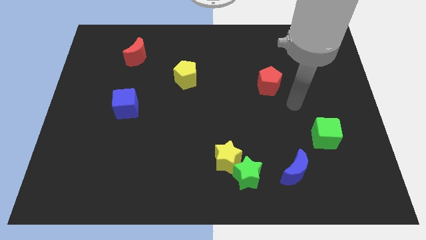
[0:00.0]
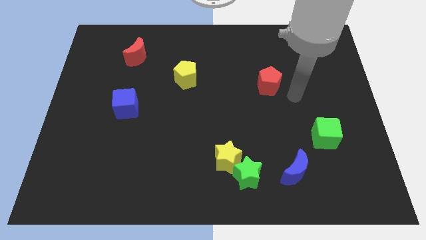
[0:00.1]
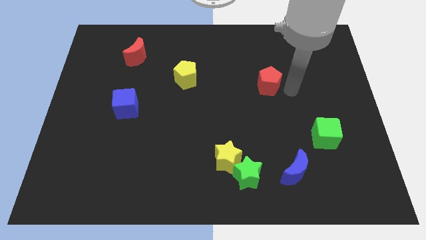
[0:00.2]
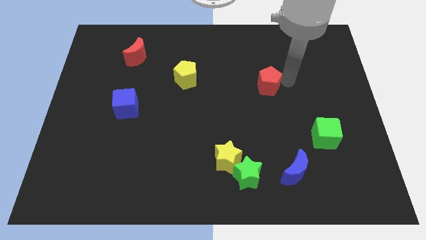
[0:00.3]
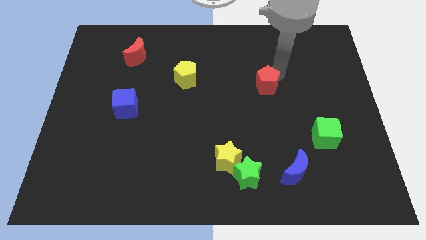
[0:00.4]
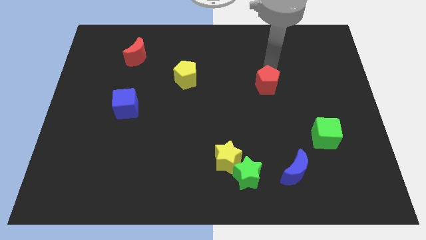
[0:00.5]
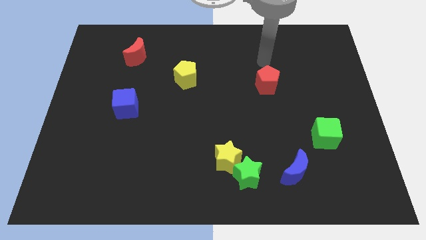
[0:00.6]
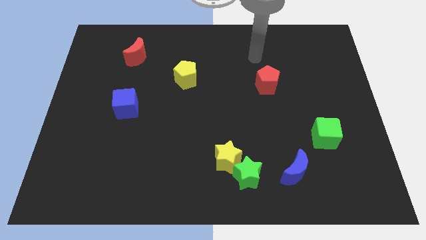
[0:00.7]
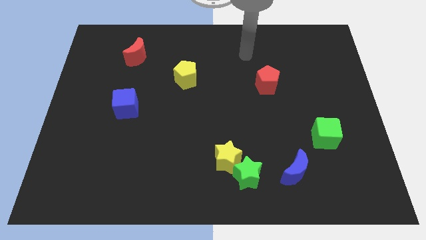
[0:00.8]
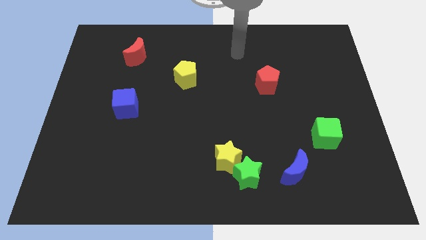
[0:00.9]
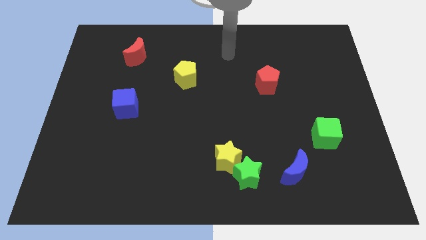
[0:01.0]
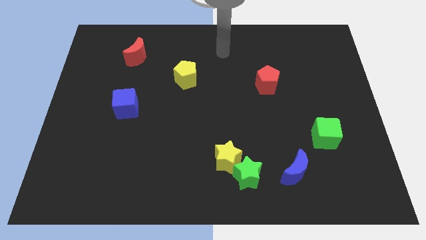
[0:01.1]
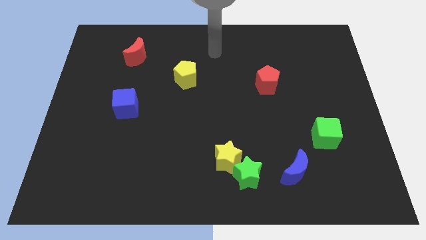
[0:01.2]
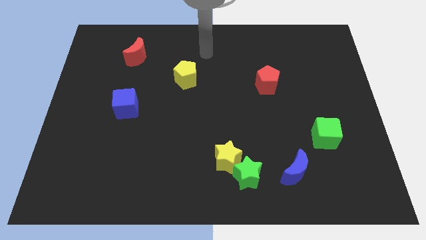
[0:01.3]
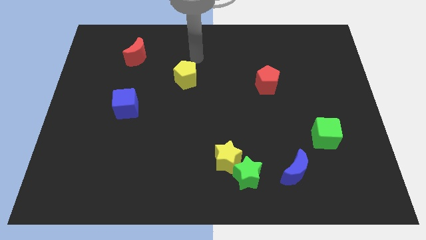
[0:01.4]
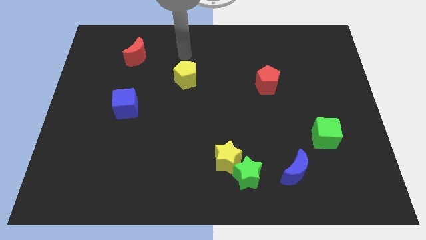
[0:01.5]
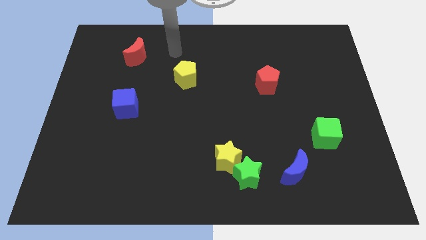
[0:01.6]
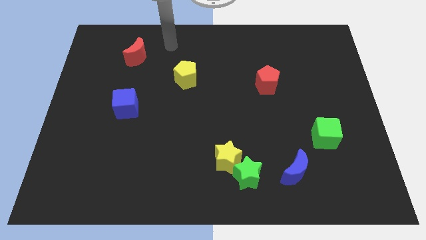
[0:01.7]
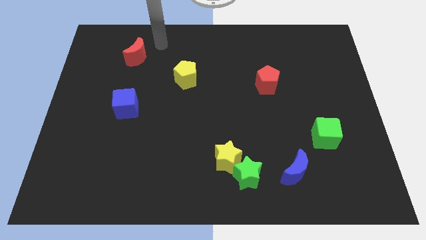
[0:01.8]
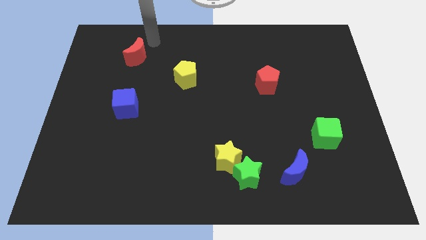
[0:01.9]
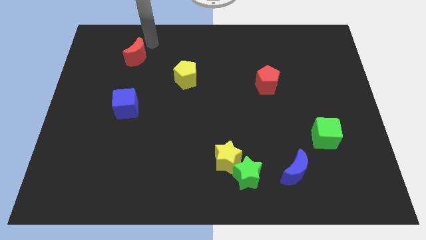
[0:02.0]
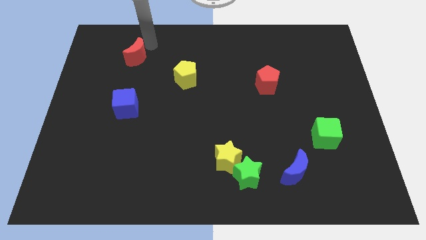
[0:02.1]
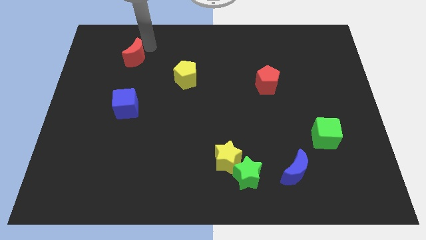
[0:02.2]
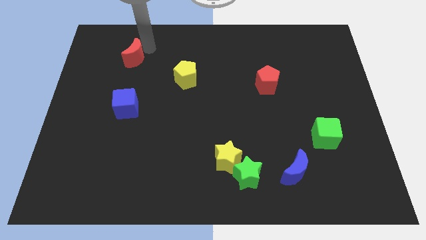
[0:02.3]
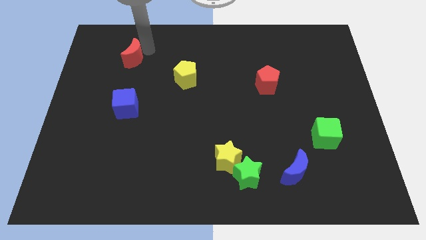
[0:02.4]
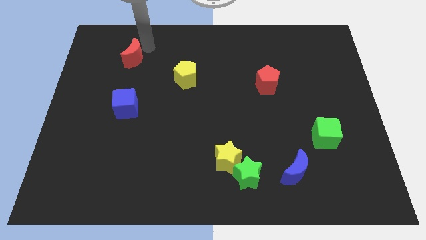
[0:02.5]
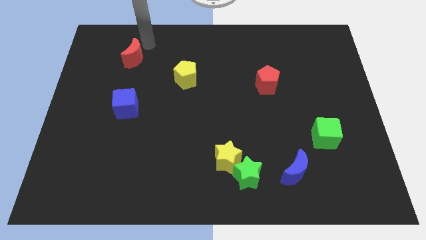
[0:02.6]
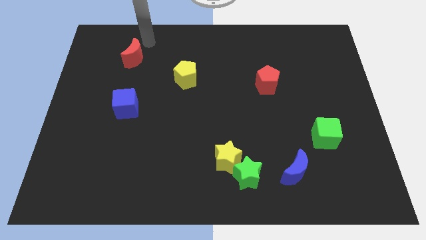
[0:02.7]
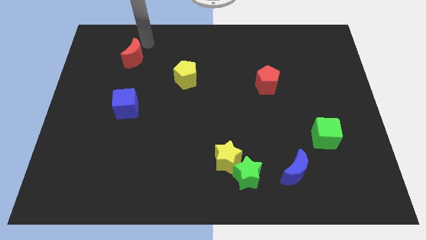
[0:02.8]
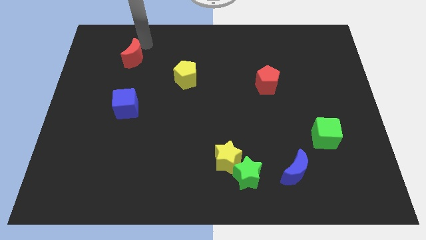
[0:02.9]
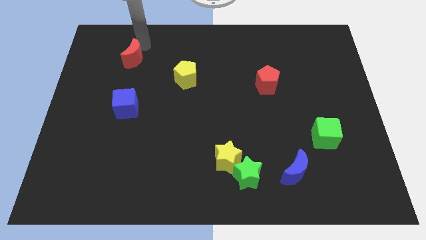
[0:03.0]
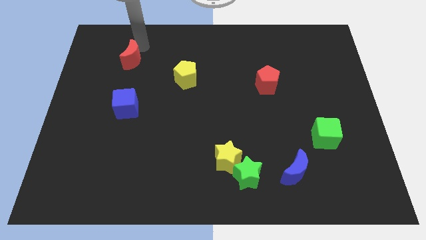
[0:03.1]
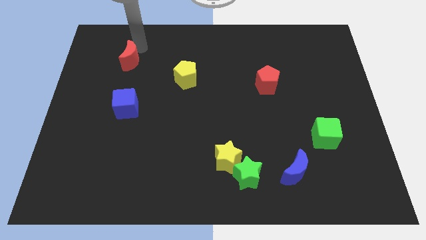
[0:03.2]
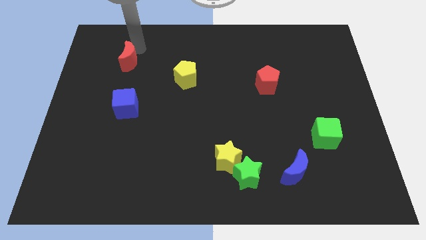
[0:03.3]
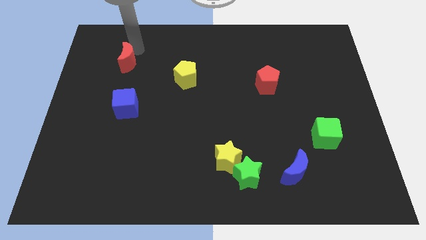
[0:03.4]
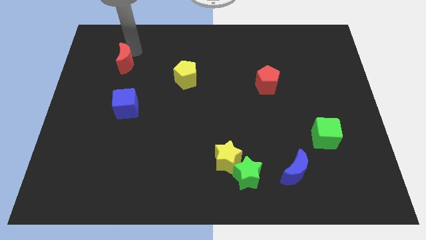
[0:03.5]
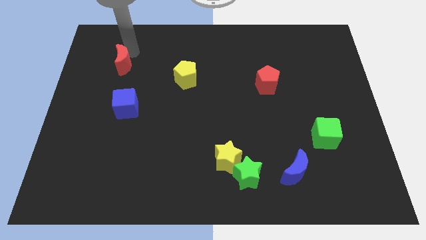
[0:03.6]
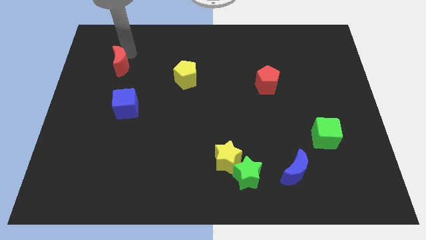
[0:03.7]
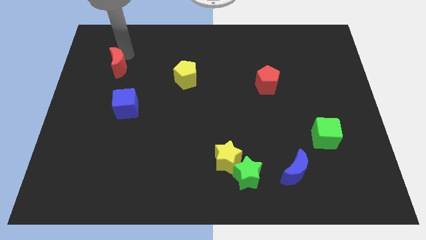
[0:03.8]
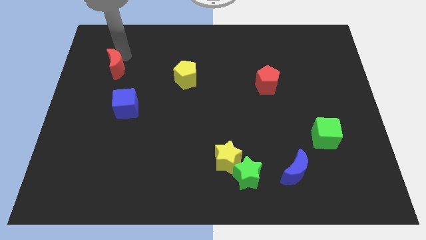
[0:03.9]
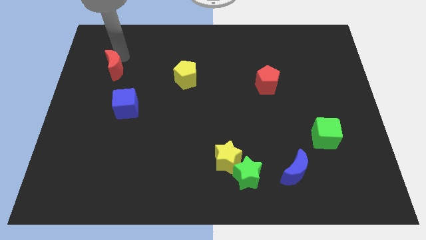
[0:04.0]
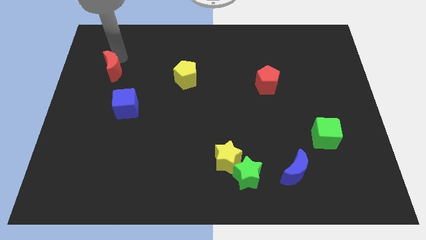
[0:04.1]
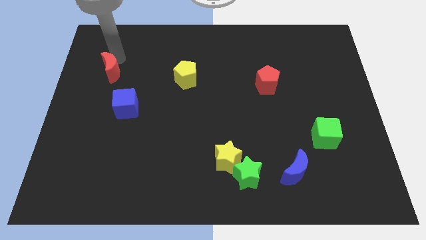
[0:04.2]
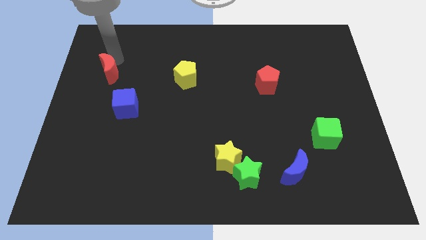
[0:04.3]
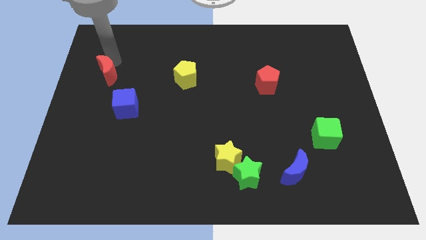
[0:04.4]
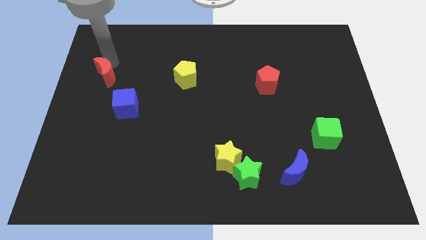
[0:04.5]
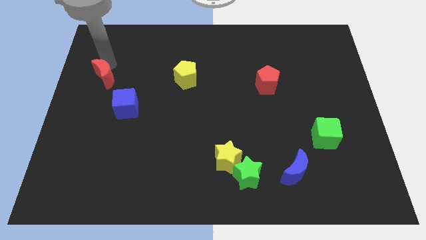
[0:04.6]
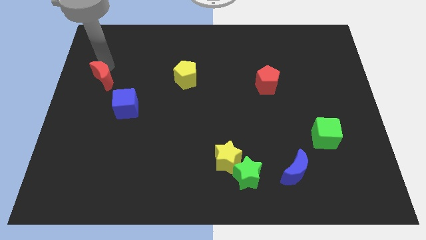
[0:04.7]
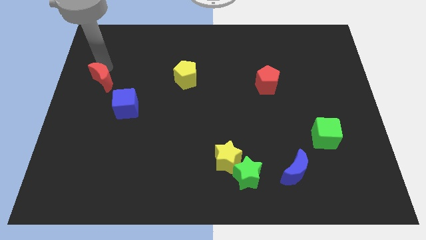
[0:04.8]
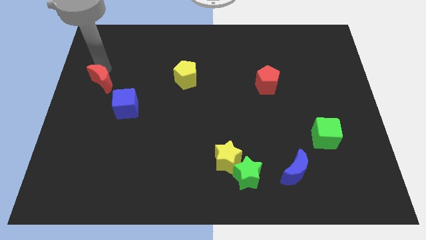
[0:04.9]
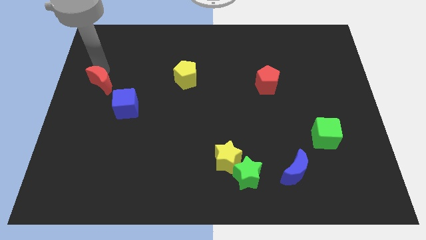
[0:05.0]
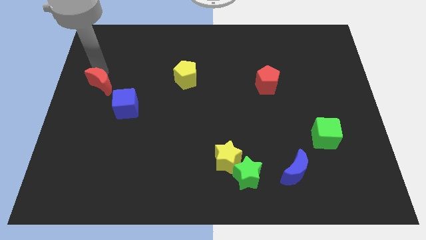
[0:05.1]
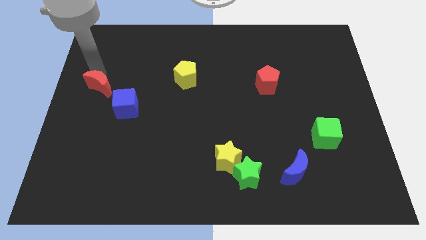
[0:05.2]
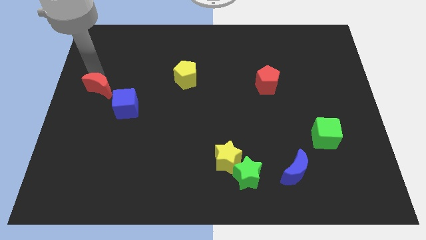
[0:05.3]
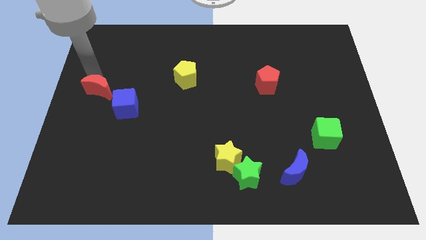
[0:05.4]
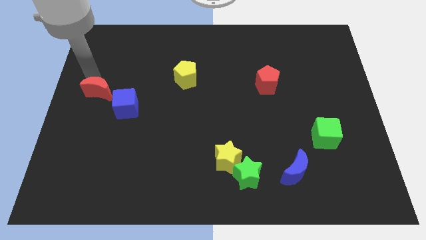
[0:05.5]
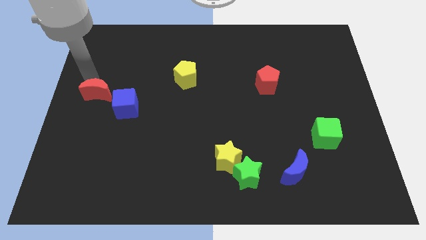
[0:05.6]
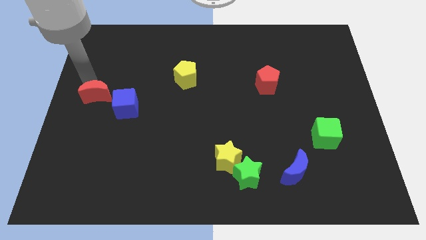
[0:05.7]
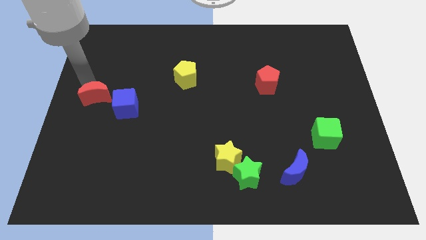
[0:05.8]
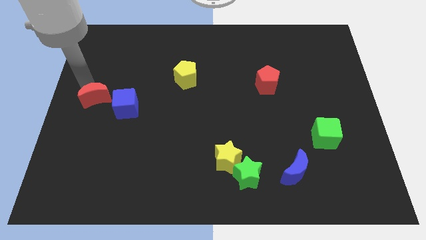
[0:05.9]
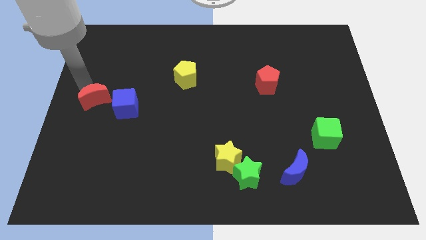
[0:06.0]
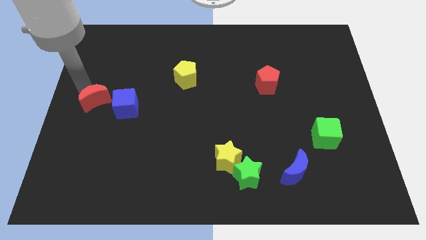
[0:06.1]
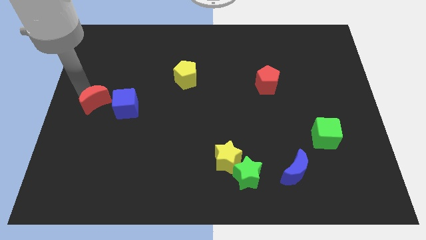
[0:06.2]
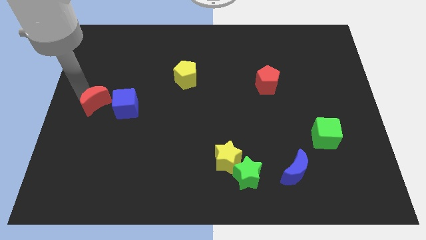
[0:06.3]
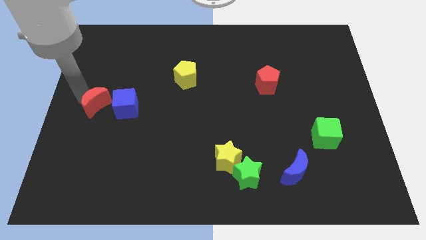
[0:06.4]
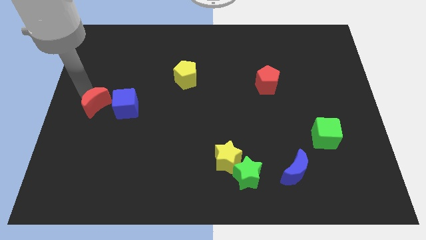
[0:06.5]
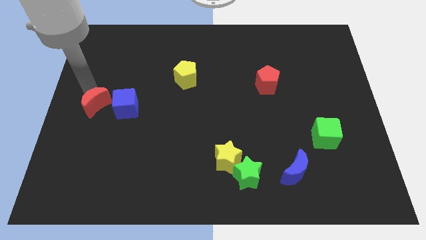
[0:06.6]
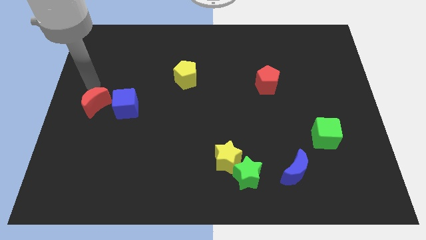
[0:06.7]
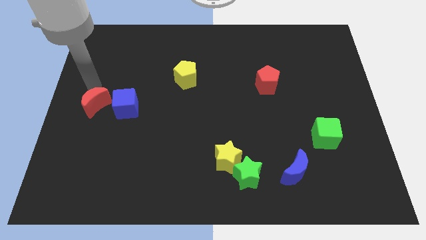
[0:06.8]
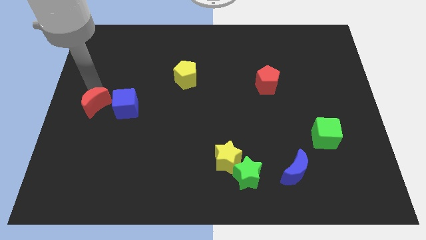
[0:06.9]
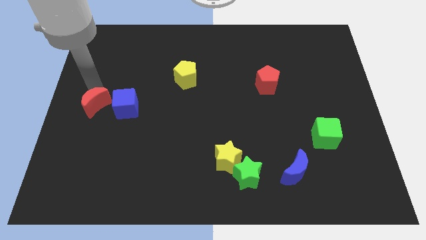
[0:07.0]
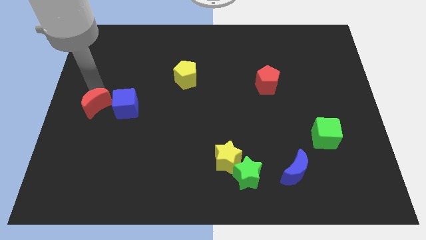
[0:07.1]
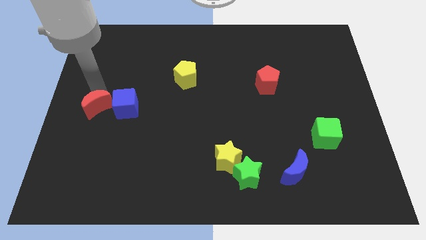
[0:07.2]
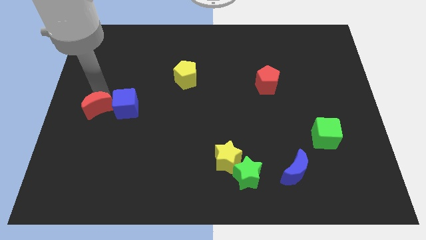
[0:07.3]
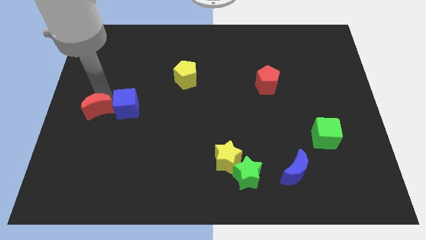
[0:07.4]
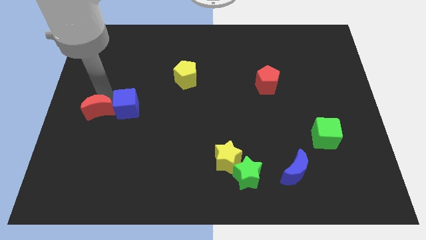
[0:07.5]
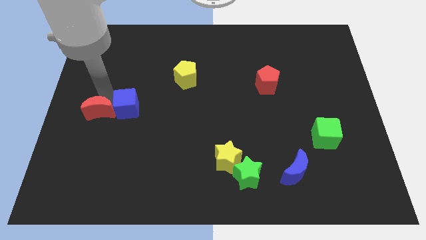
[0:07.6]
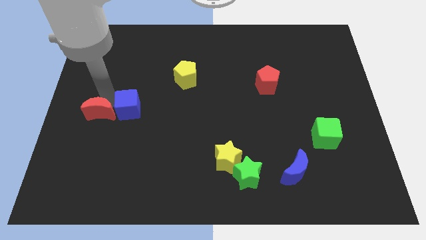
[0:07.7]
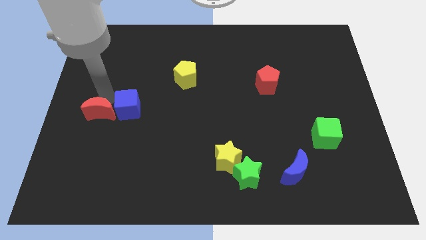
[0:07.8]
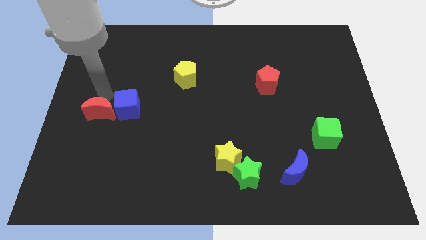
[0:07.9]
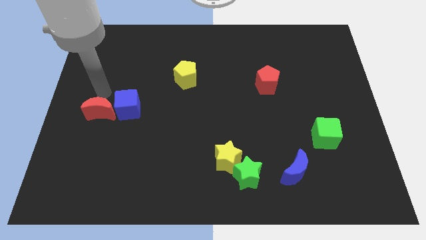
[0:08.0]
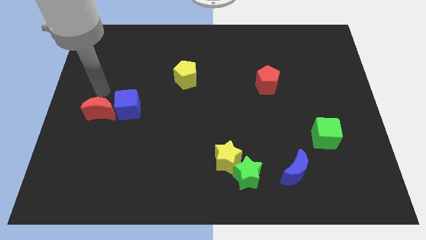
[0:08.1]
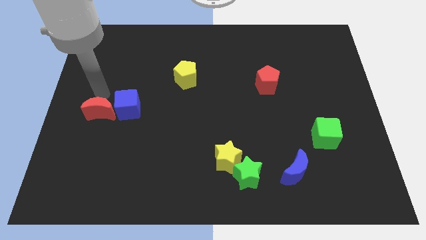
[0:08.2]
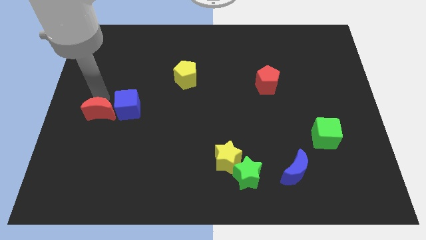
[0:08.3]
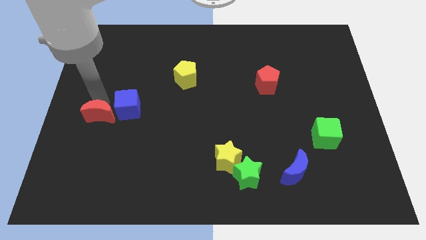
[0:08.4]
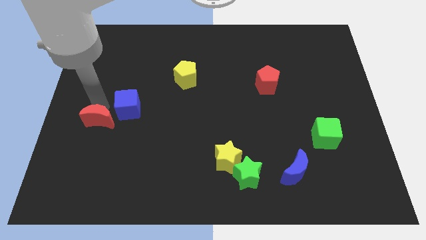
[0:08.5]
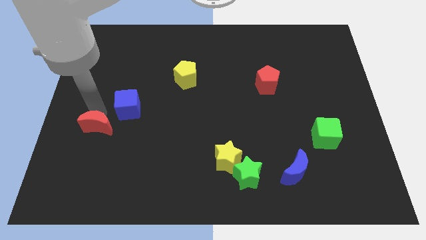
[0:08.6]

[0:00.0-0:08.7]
slide the red moon down
